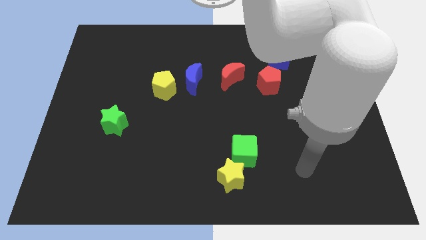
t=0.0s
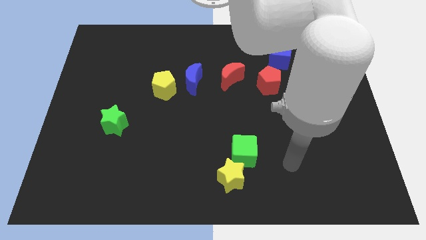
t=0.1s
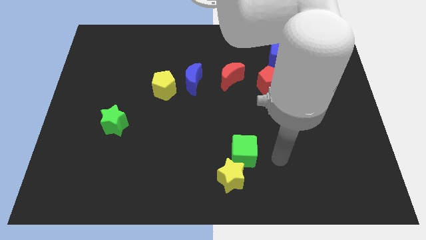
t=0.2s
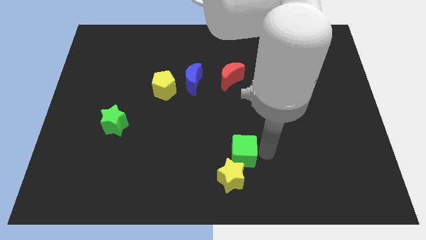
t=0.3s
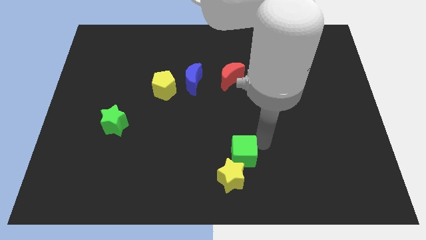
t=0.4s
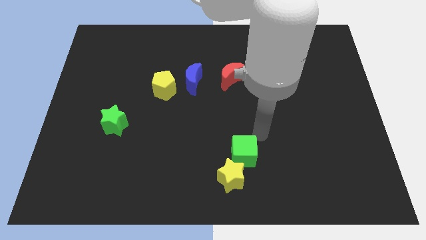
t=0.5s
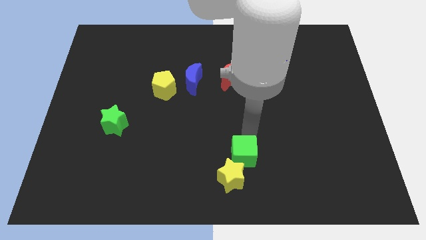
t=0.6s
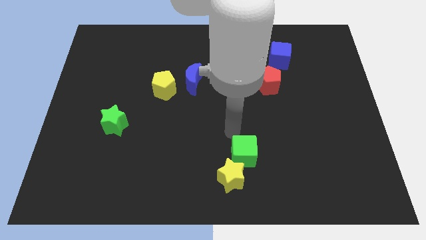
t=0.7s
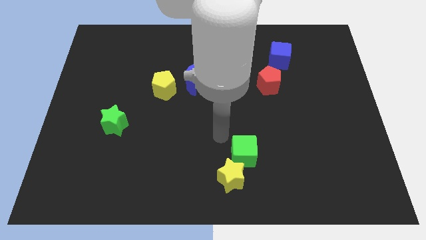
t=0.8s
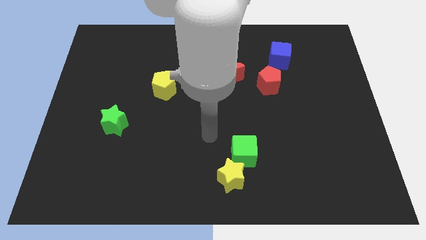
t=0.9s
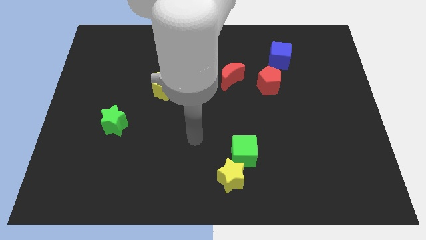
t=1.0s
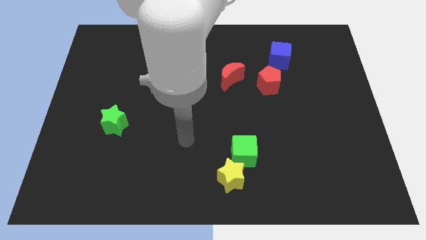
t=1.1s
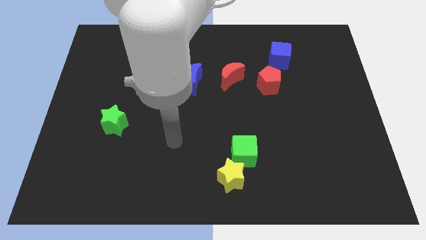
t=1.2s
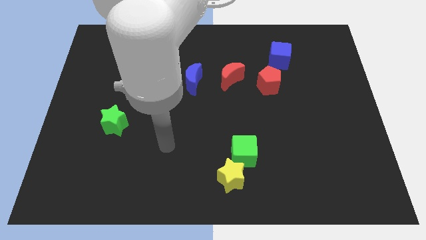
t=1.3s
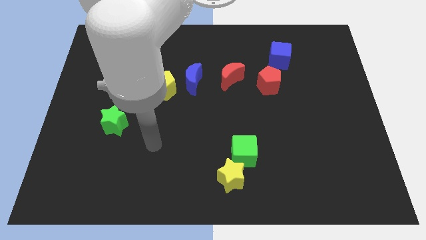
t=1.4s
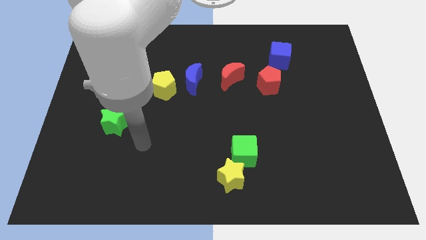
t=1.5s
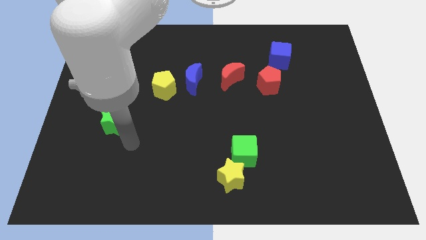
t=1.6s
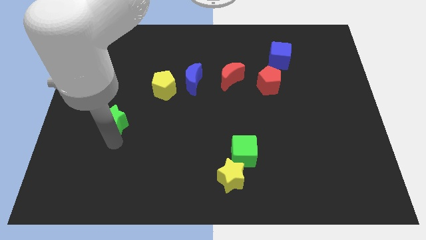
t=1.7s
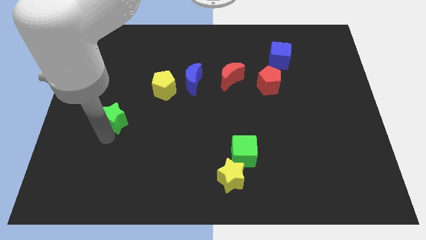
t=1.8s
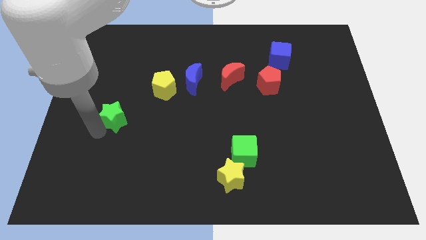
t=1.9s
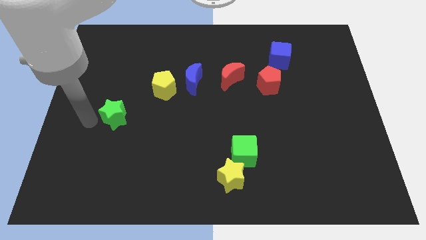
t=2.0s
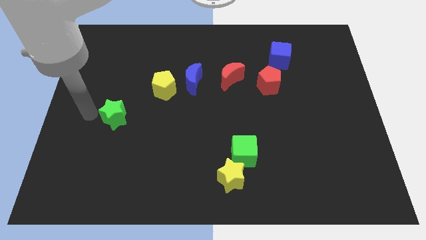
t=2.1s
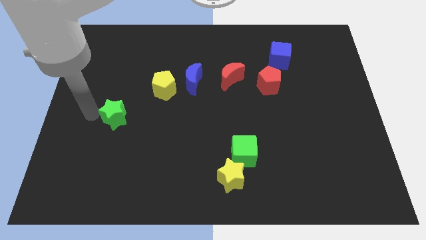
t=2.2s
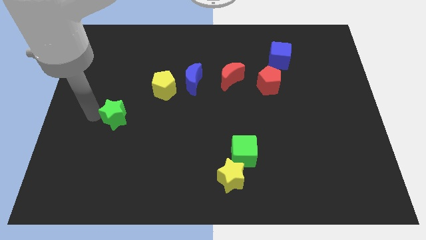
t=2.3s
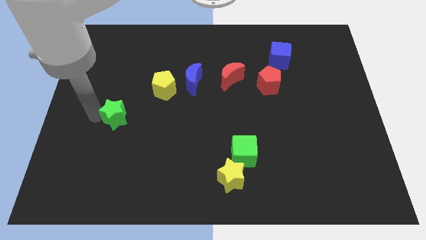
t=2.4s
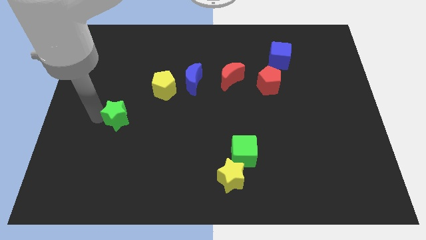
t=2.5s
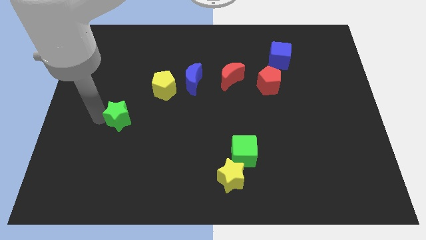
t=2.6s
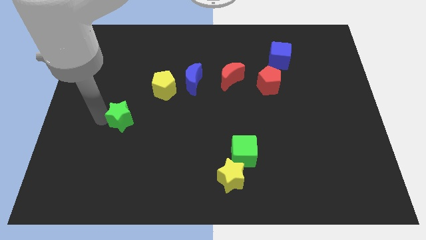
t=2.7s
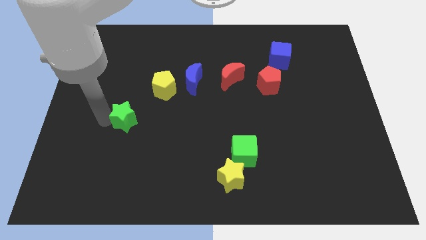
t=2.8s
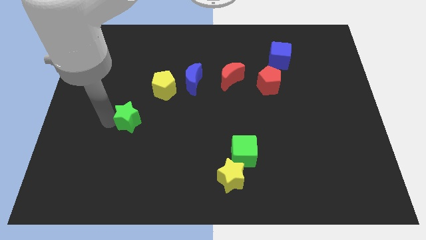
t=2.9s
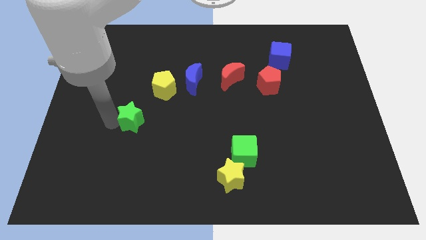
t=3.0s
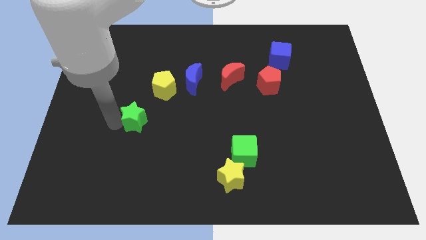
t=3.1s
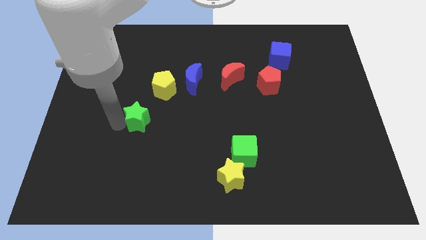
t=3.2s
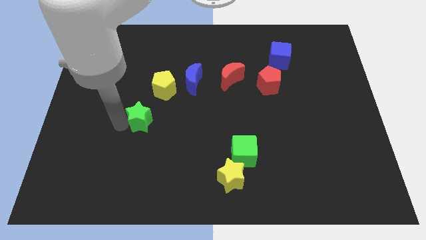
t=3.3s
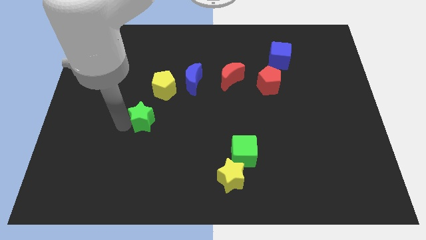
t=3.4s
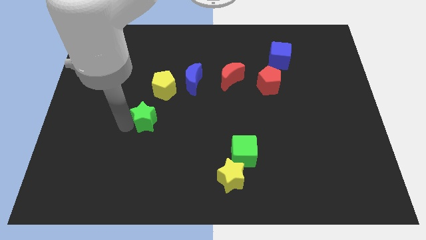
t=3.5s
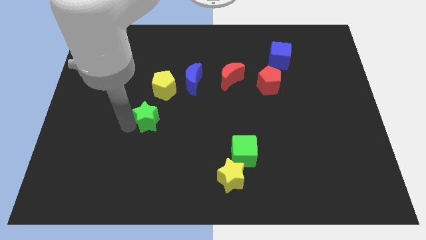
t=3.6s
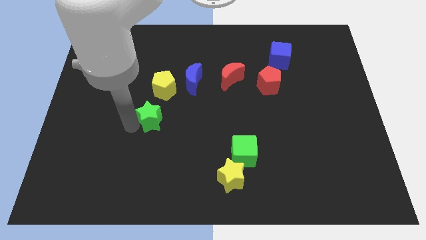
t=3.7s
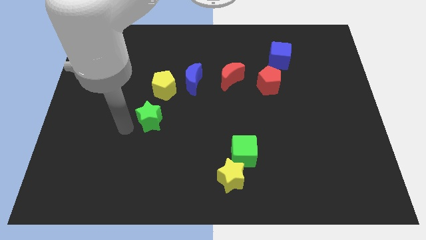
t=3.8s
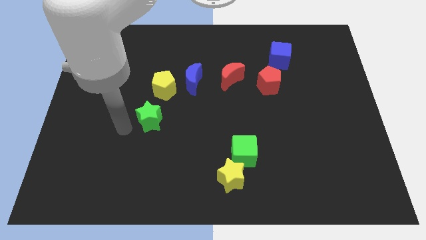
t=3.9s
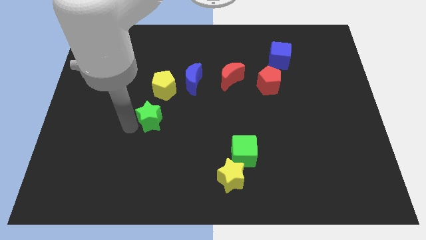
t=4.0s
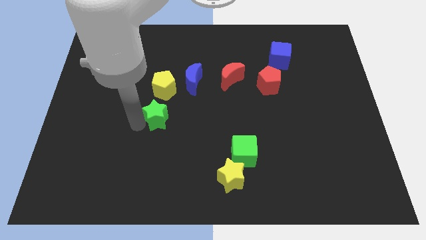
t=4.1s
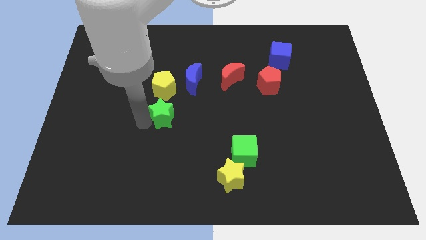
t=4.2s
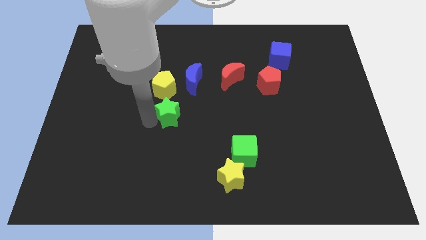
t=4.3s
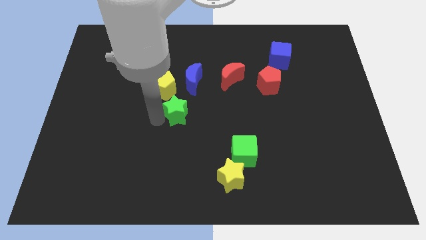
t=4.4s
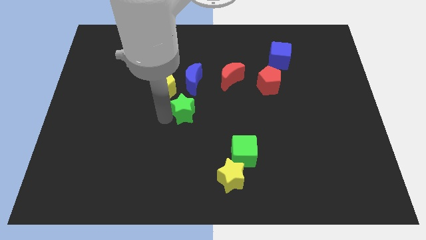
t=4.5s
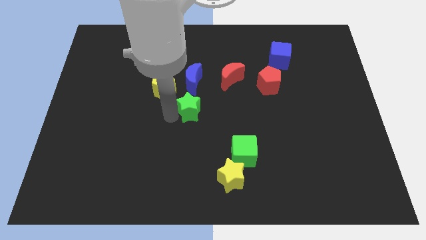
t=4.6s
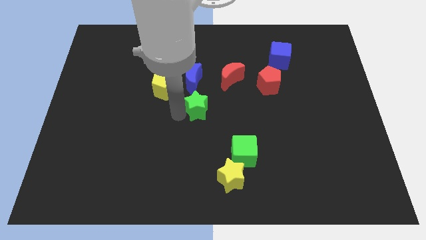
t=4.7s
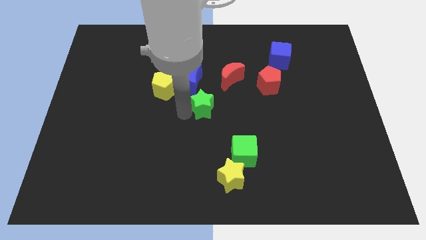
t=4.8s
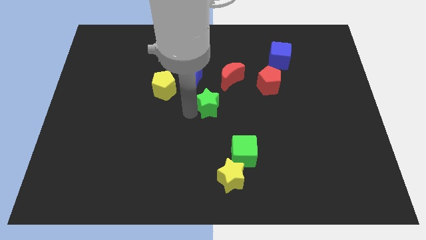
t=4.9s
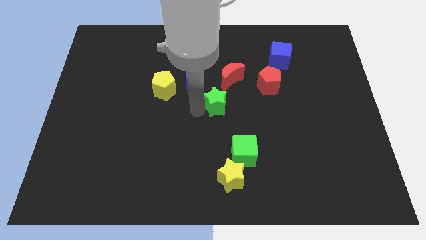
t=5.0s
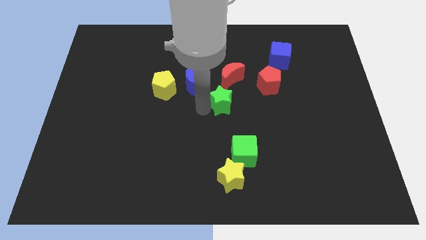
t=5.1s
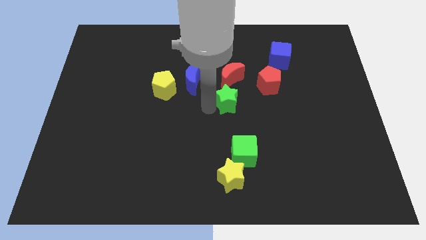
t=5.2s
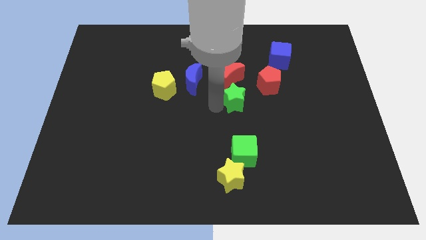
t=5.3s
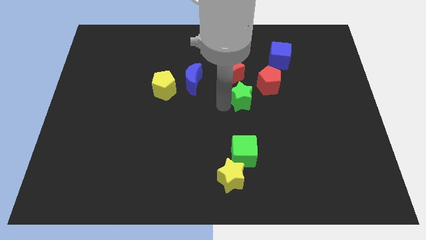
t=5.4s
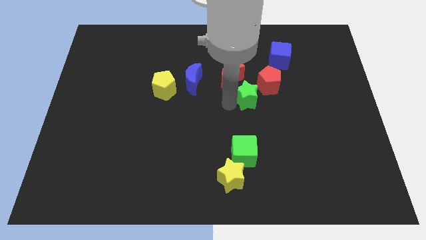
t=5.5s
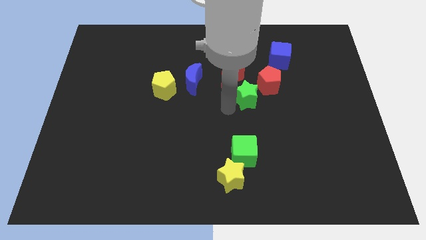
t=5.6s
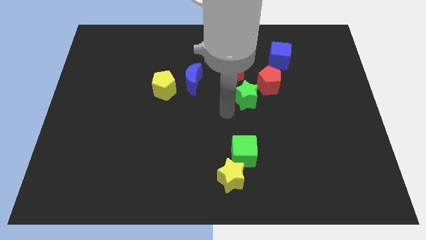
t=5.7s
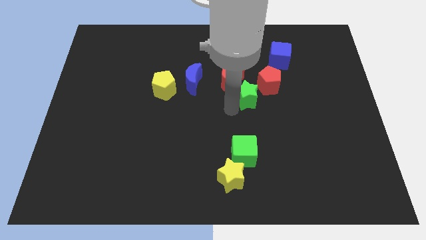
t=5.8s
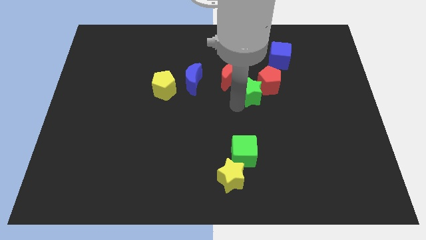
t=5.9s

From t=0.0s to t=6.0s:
push the green star next to the red pentagon
